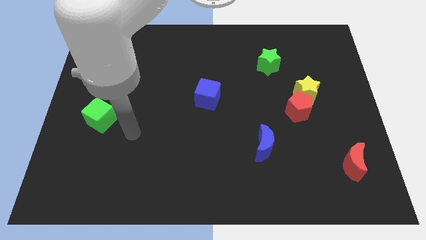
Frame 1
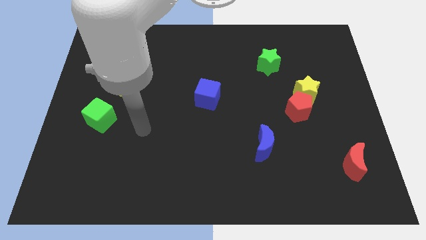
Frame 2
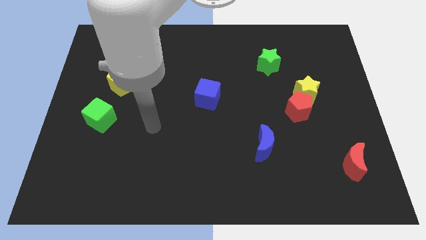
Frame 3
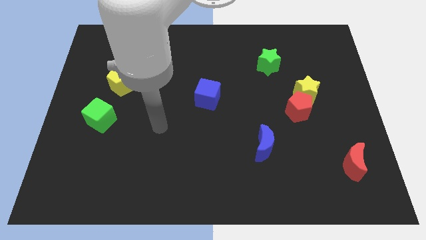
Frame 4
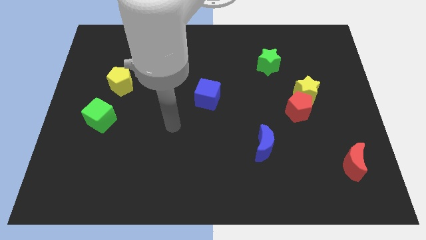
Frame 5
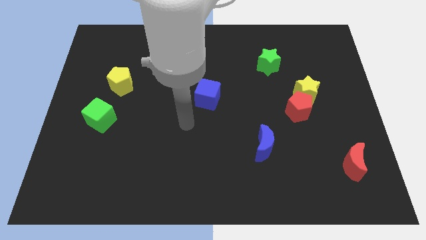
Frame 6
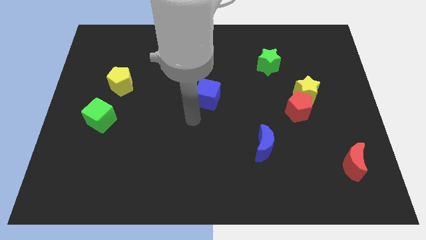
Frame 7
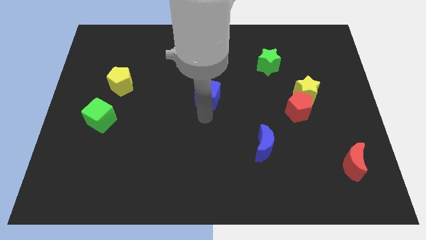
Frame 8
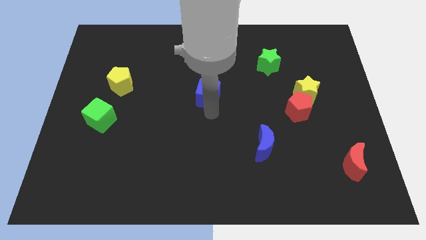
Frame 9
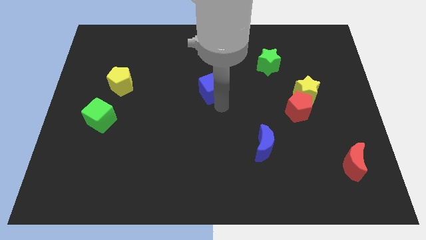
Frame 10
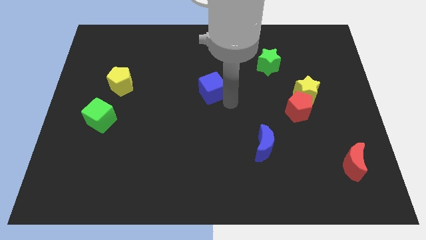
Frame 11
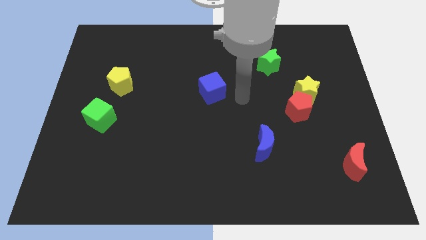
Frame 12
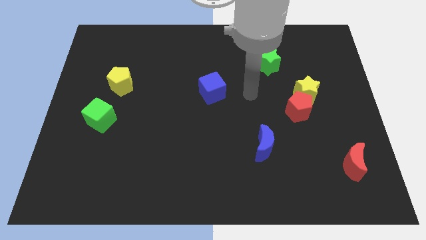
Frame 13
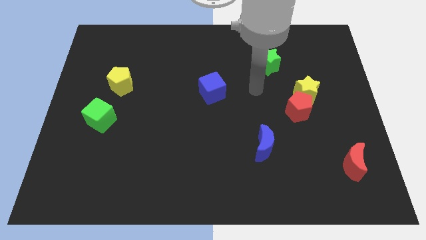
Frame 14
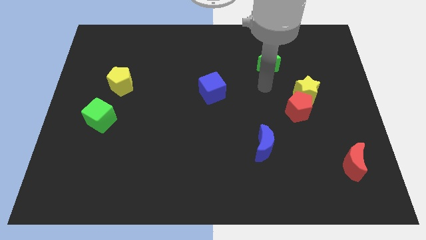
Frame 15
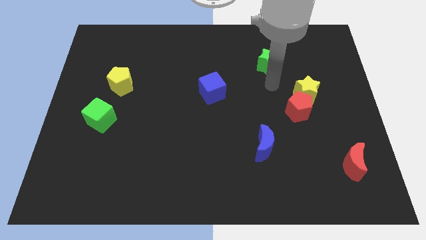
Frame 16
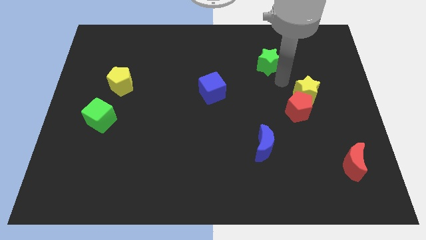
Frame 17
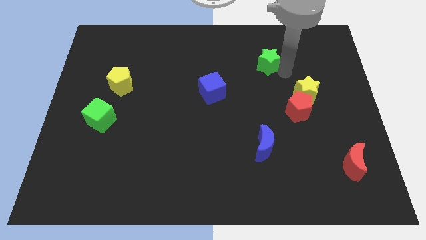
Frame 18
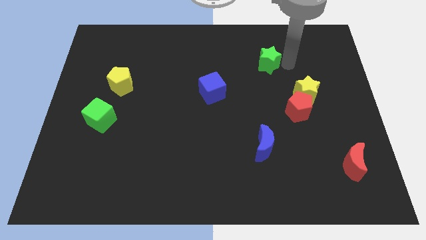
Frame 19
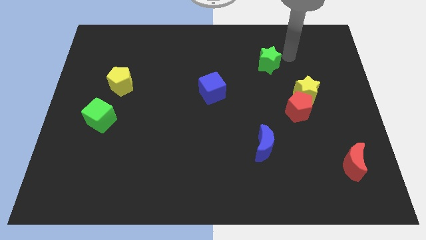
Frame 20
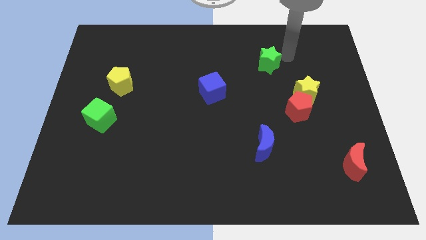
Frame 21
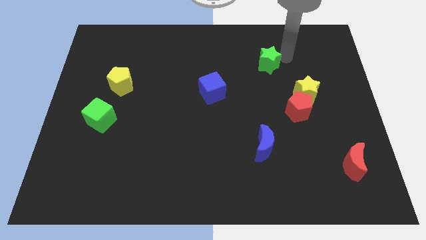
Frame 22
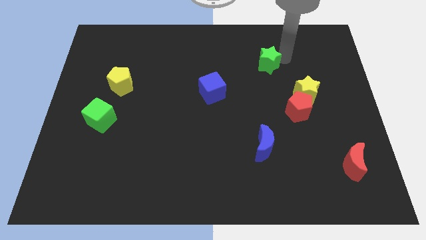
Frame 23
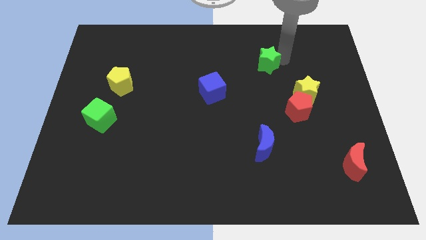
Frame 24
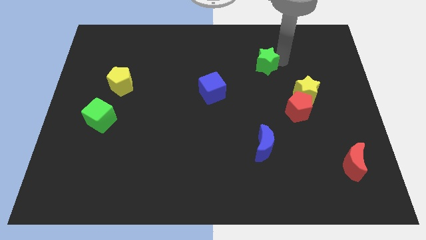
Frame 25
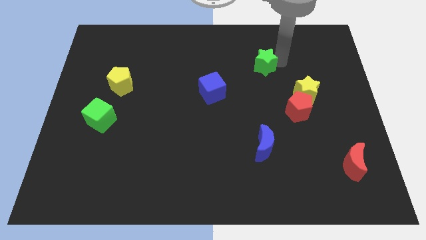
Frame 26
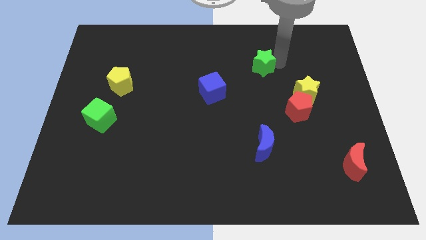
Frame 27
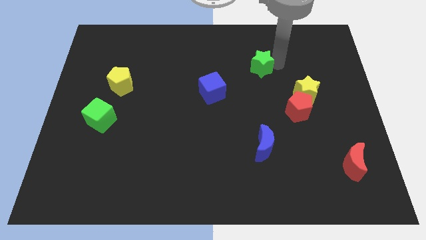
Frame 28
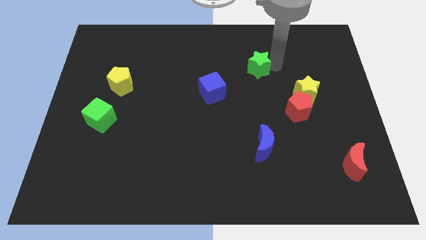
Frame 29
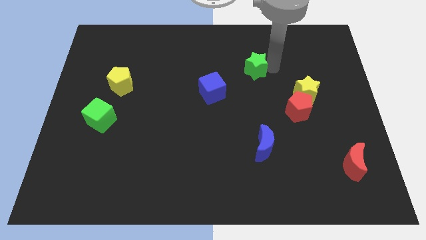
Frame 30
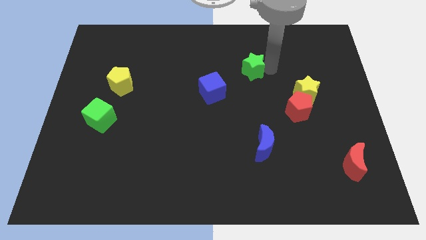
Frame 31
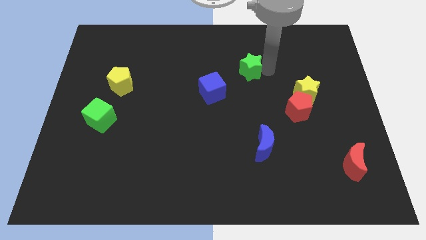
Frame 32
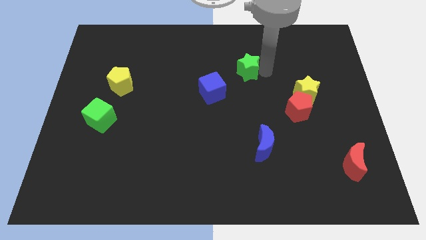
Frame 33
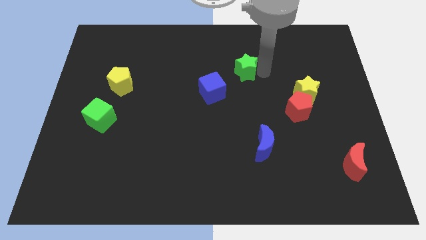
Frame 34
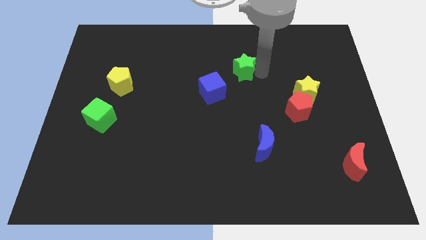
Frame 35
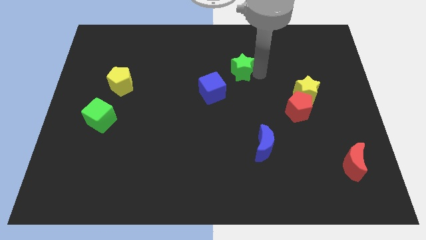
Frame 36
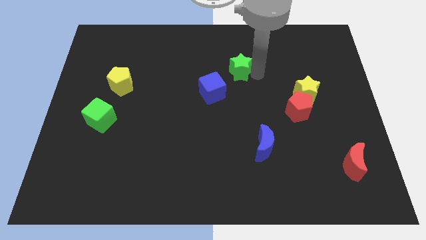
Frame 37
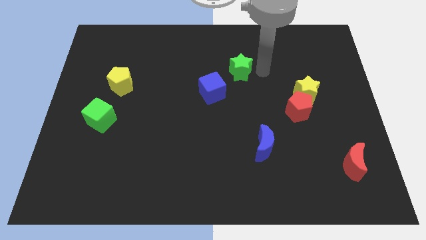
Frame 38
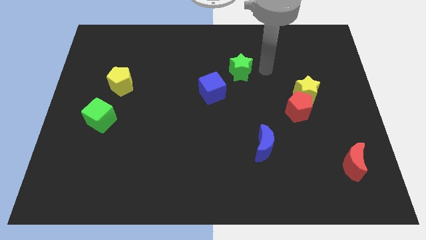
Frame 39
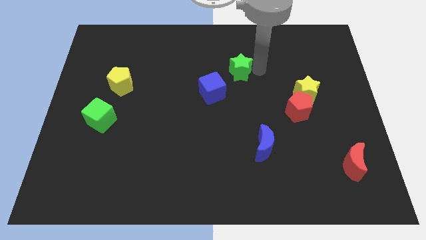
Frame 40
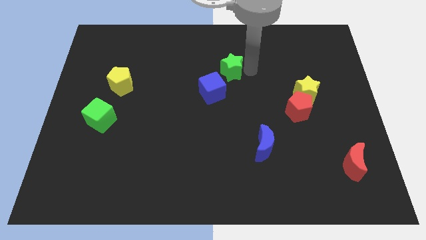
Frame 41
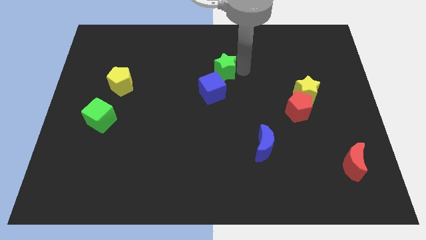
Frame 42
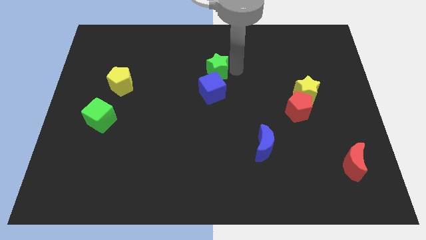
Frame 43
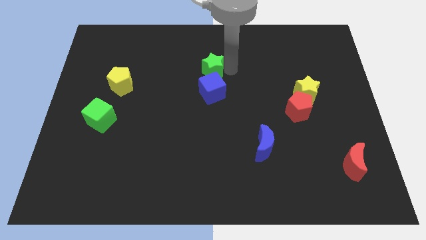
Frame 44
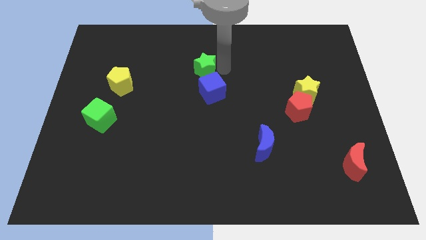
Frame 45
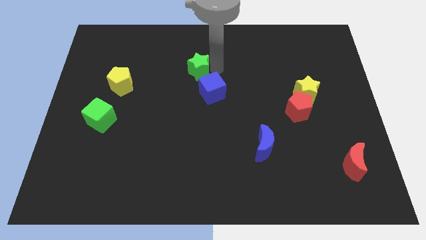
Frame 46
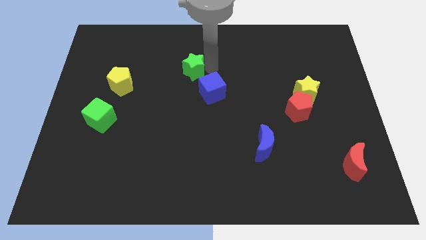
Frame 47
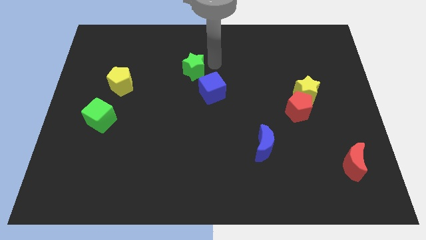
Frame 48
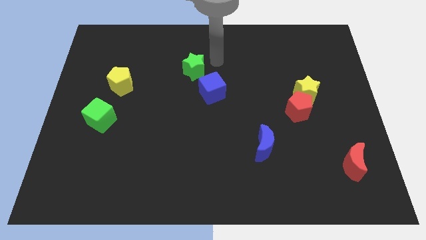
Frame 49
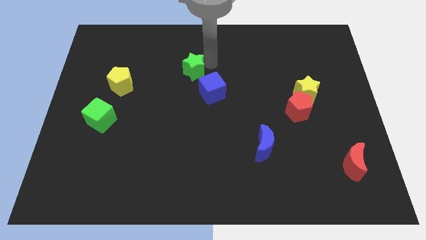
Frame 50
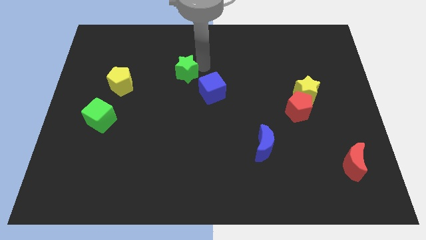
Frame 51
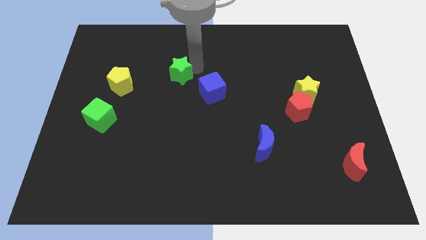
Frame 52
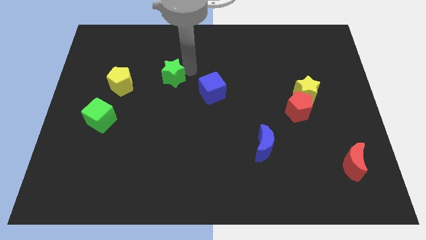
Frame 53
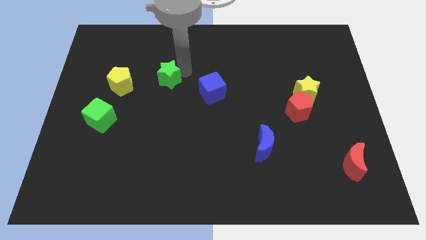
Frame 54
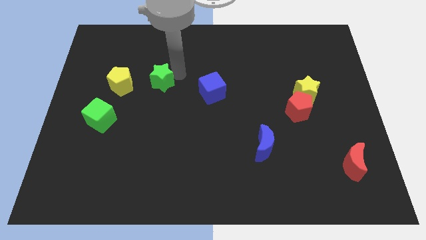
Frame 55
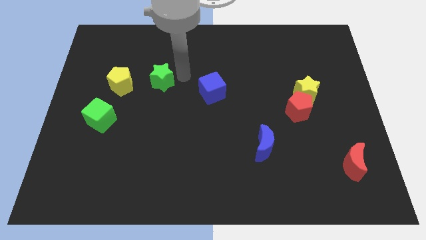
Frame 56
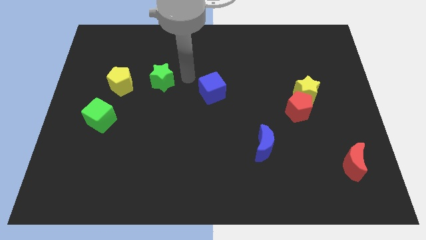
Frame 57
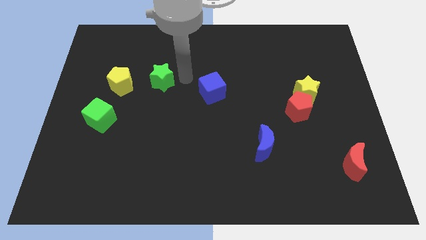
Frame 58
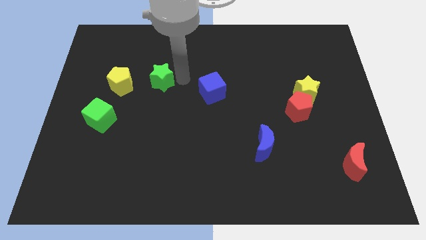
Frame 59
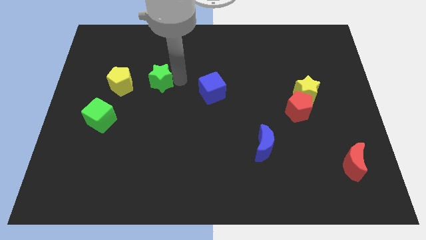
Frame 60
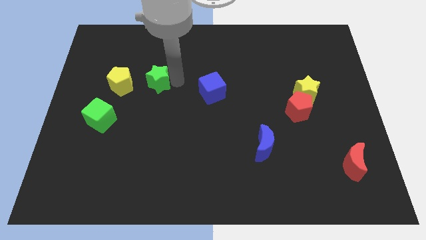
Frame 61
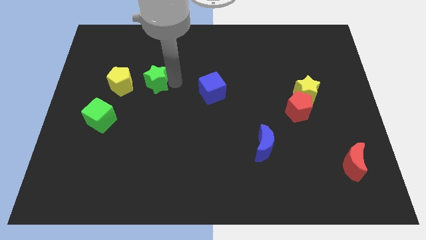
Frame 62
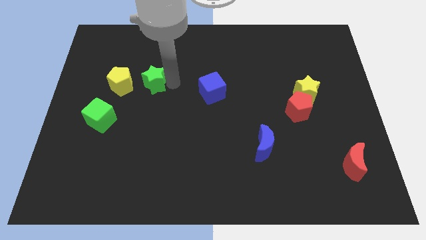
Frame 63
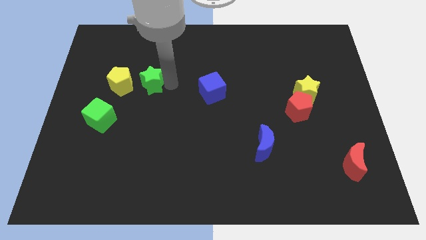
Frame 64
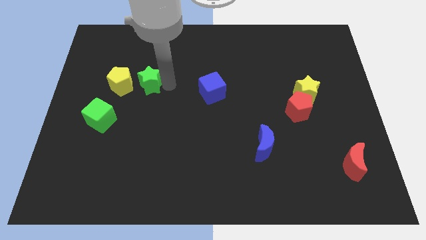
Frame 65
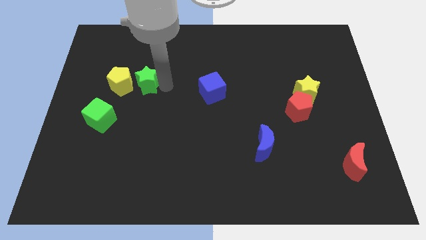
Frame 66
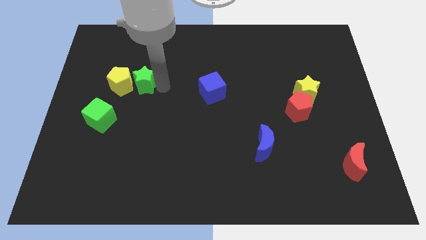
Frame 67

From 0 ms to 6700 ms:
push the green star next to the yellow pentagon

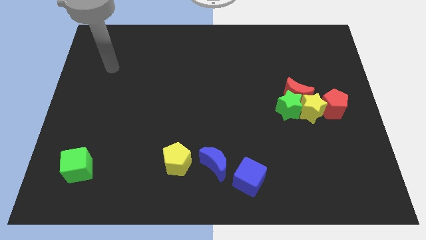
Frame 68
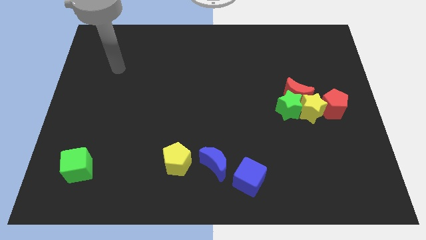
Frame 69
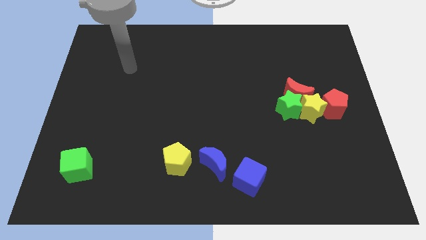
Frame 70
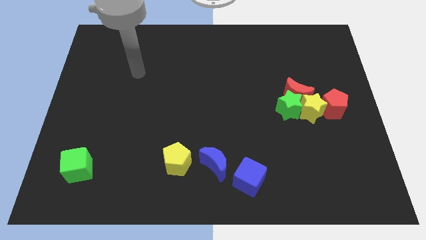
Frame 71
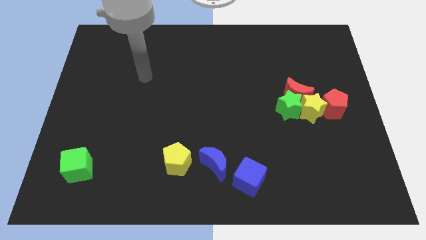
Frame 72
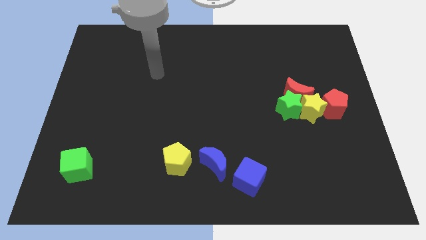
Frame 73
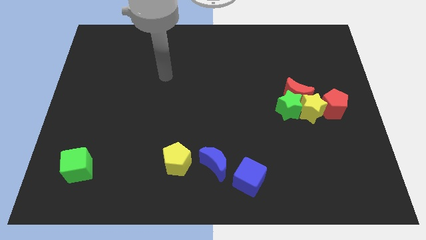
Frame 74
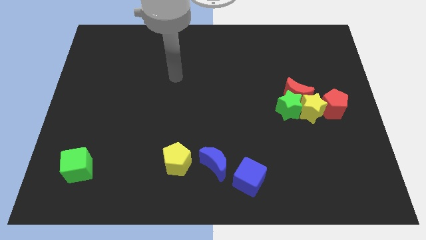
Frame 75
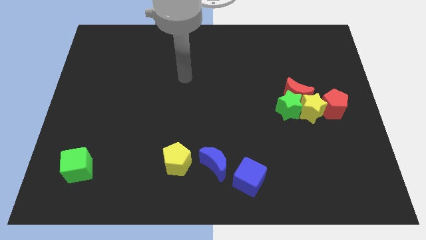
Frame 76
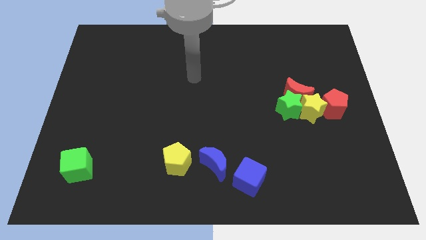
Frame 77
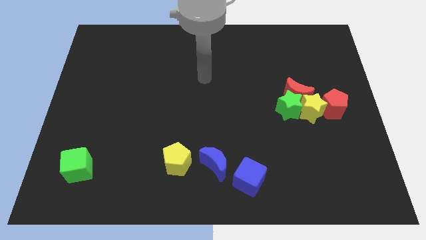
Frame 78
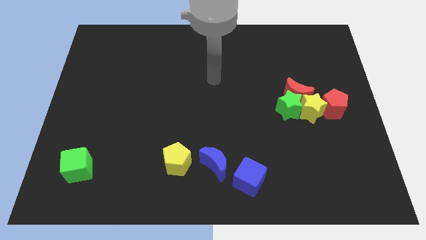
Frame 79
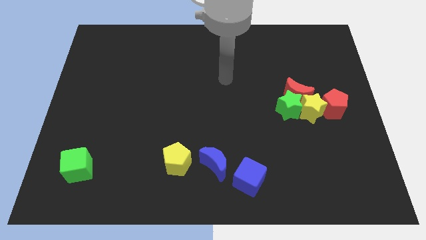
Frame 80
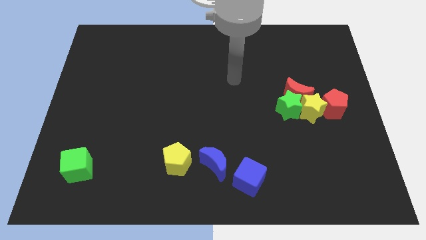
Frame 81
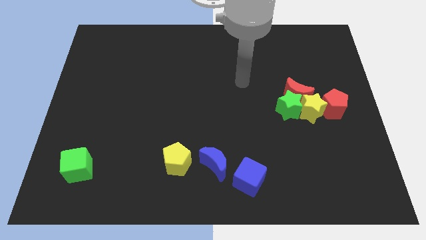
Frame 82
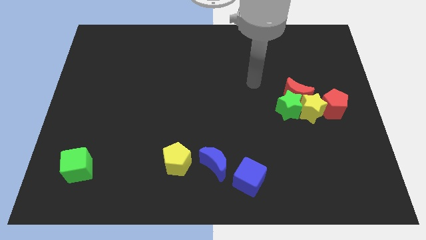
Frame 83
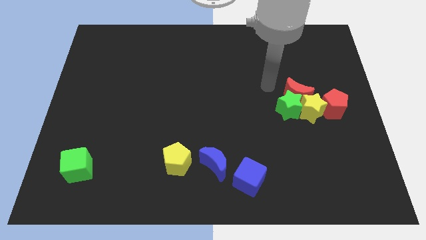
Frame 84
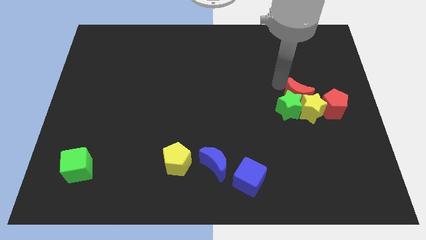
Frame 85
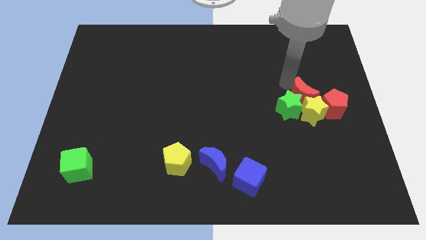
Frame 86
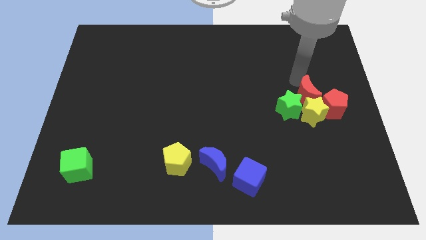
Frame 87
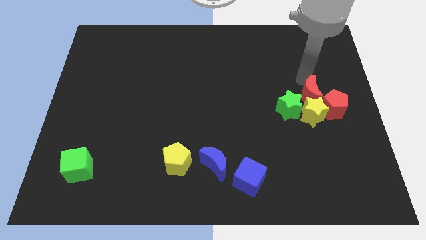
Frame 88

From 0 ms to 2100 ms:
slide the red pentagon next to the red moon
